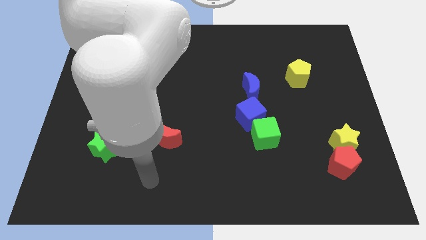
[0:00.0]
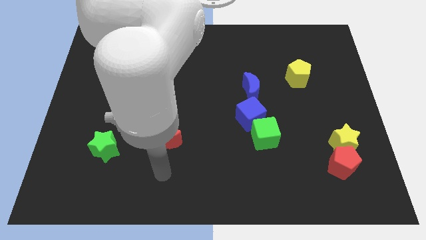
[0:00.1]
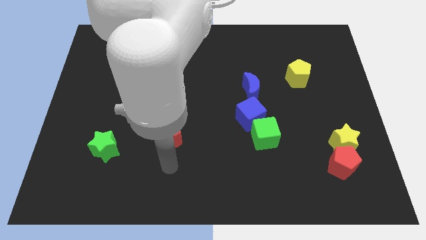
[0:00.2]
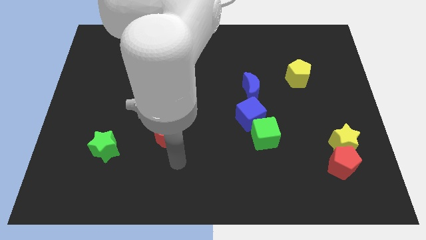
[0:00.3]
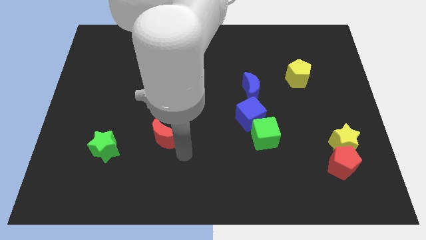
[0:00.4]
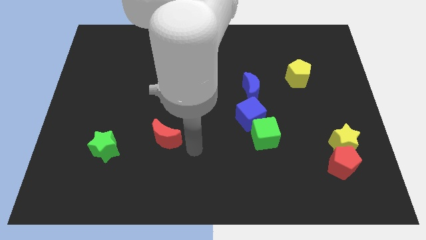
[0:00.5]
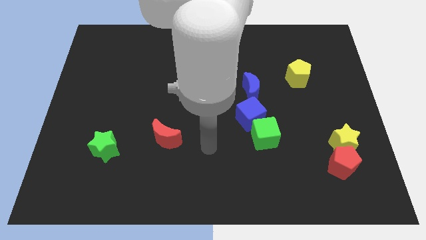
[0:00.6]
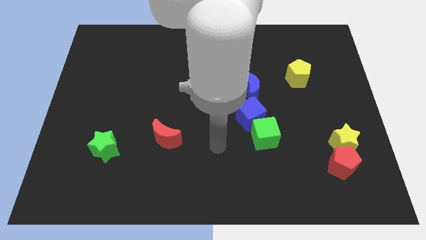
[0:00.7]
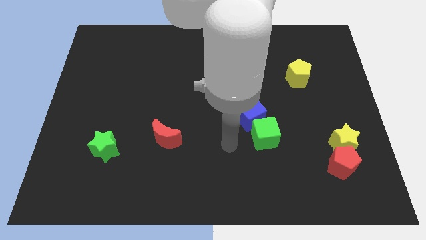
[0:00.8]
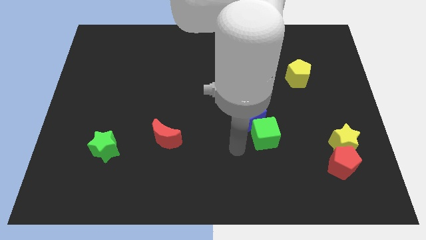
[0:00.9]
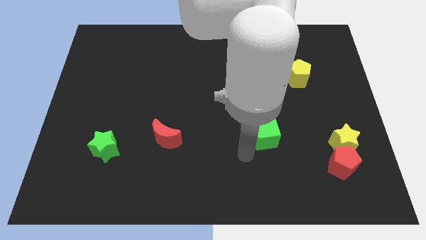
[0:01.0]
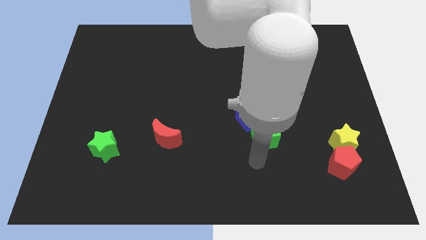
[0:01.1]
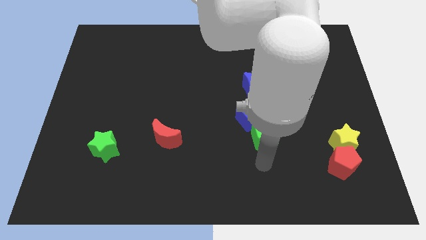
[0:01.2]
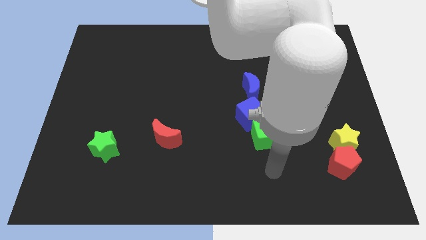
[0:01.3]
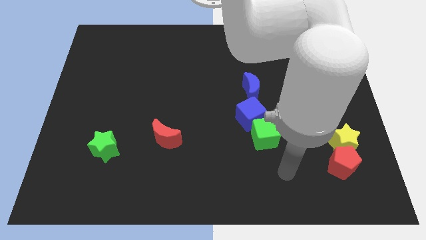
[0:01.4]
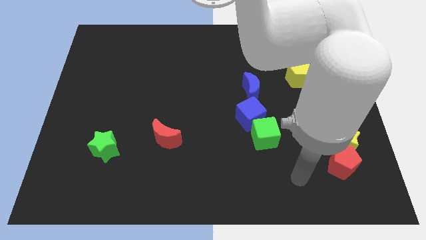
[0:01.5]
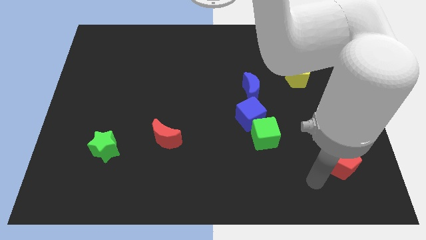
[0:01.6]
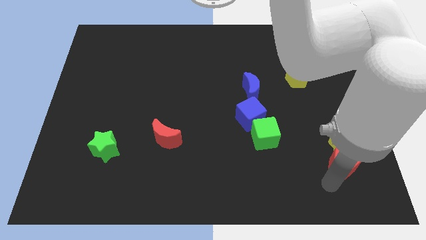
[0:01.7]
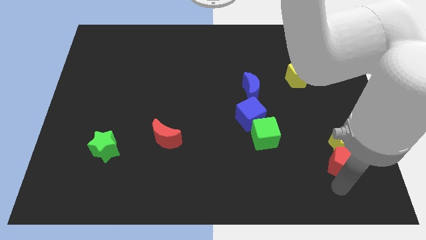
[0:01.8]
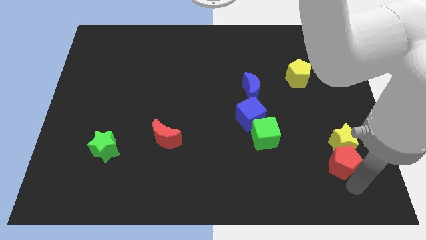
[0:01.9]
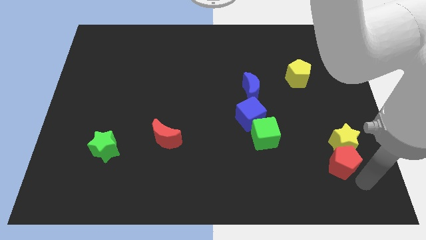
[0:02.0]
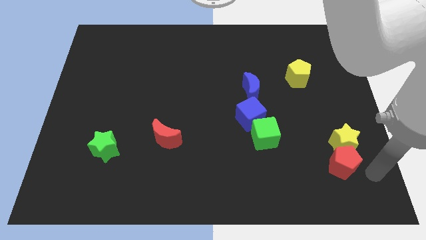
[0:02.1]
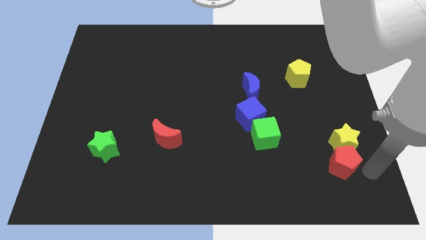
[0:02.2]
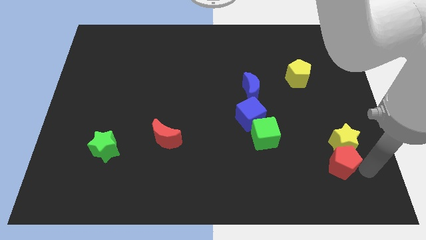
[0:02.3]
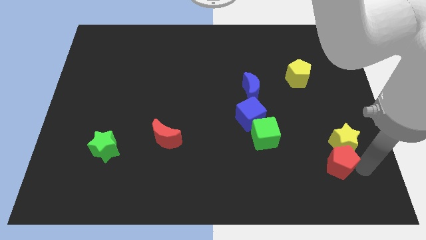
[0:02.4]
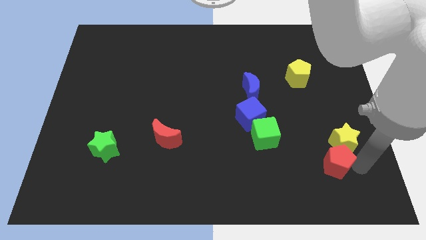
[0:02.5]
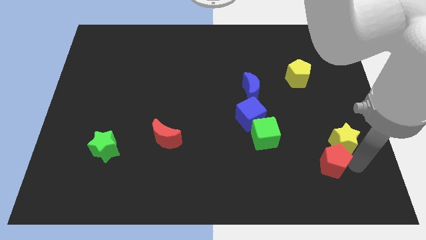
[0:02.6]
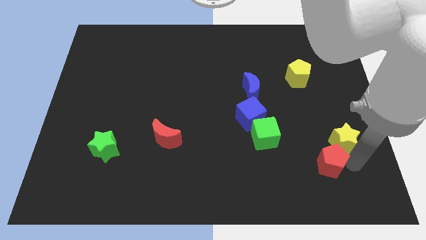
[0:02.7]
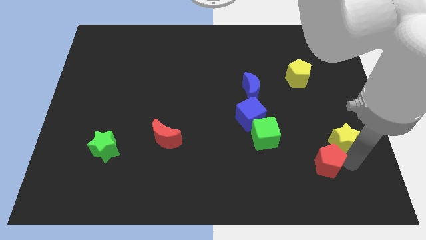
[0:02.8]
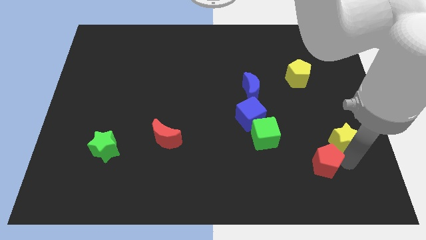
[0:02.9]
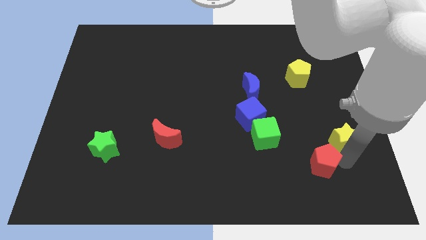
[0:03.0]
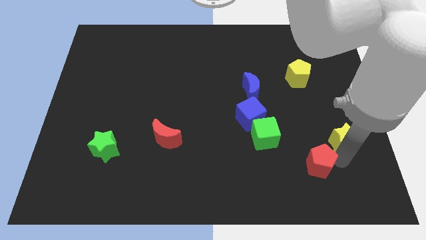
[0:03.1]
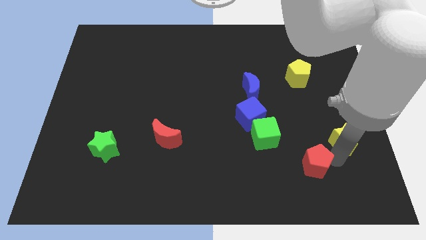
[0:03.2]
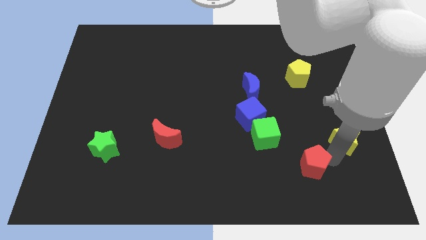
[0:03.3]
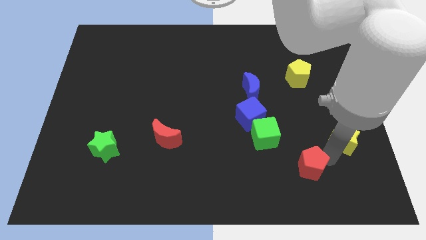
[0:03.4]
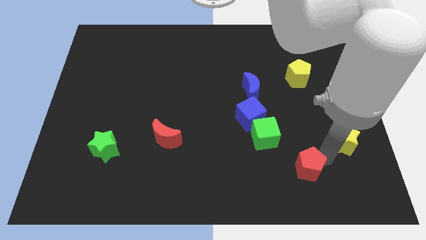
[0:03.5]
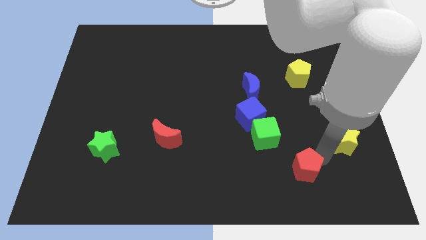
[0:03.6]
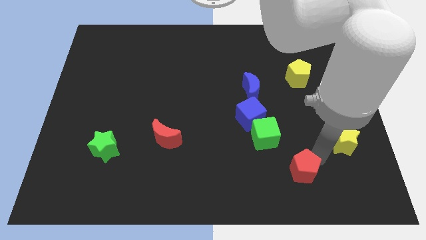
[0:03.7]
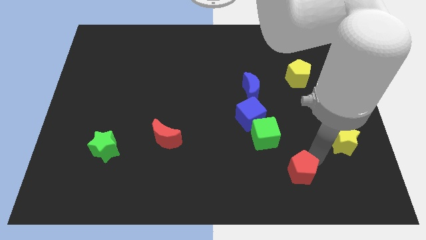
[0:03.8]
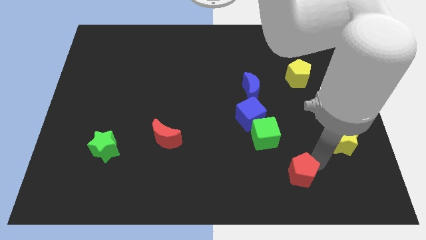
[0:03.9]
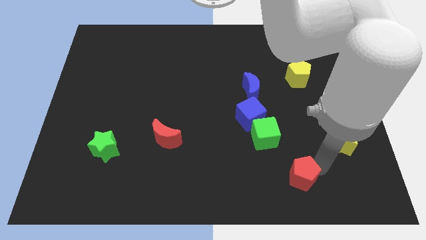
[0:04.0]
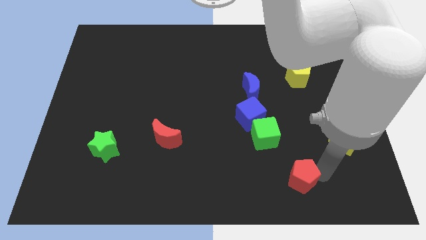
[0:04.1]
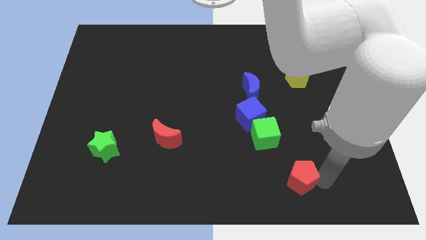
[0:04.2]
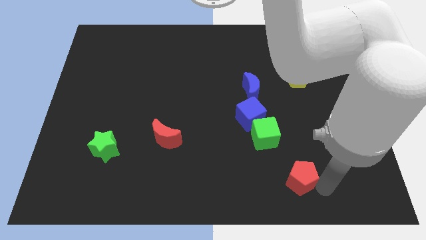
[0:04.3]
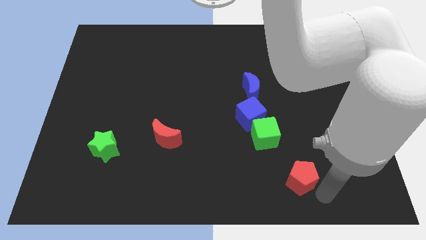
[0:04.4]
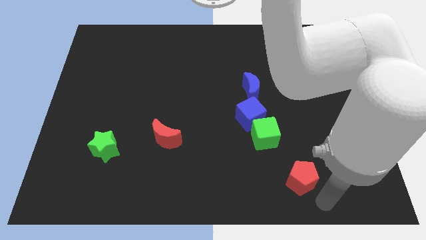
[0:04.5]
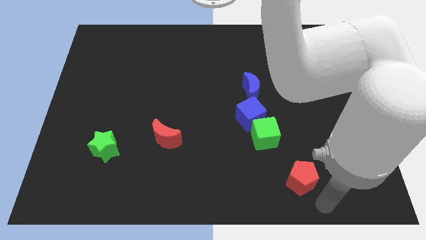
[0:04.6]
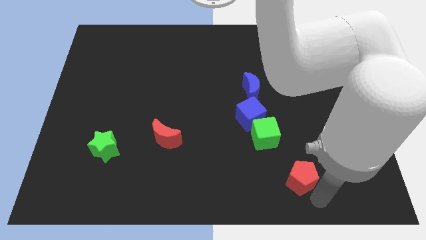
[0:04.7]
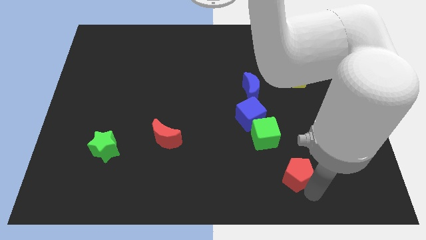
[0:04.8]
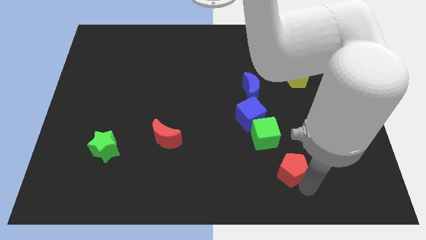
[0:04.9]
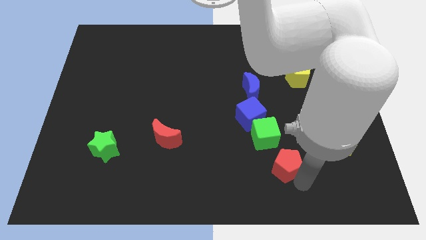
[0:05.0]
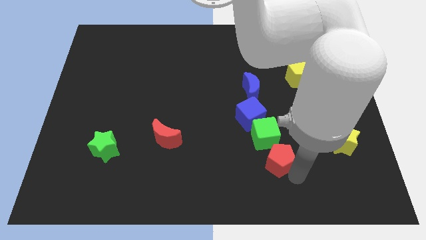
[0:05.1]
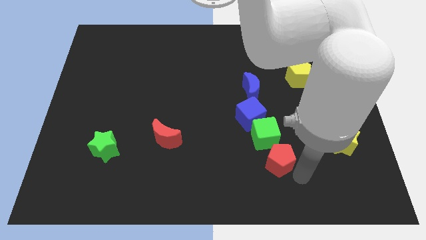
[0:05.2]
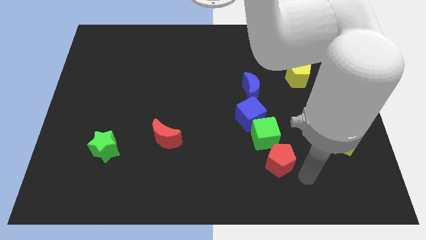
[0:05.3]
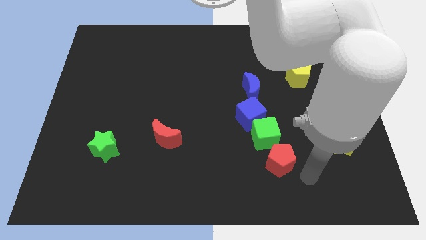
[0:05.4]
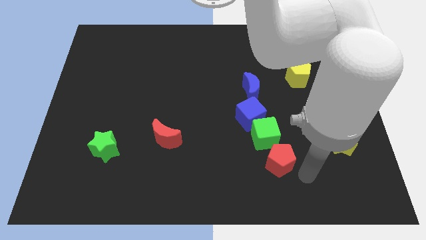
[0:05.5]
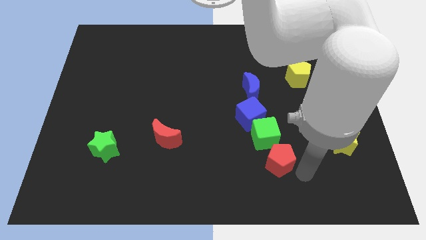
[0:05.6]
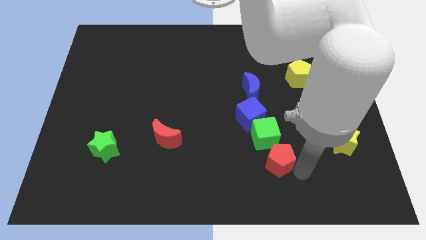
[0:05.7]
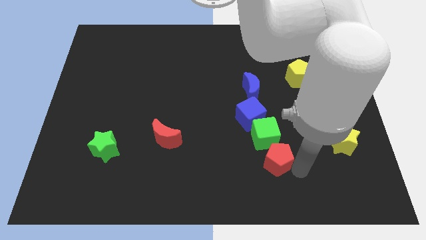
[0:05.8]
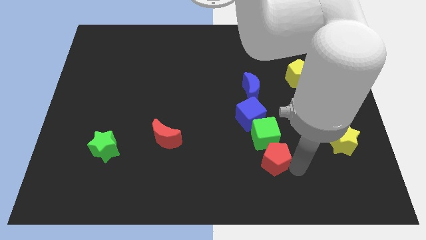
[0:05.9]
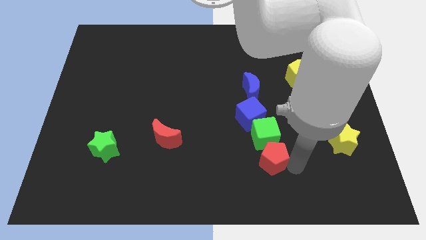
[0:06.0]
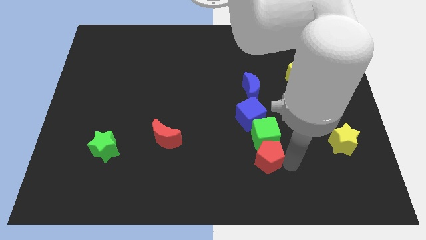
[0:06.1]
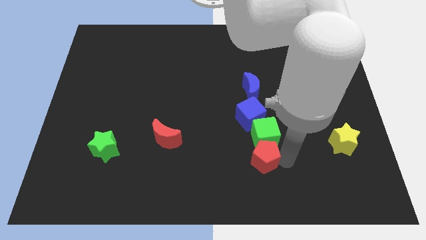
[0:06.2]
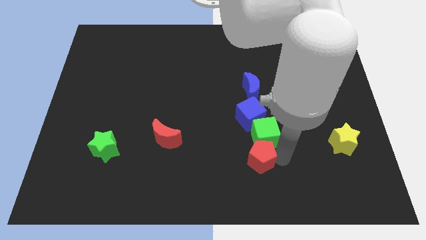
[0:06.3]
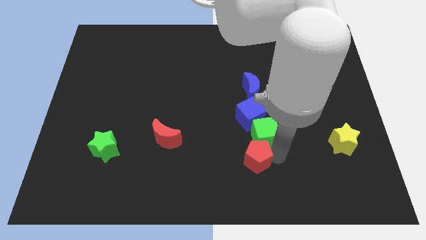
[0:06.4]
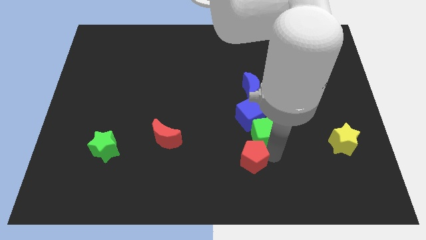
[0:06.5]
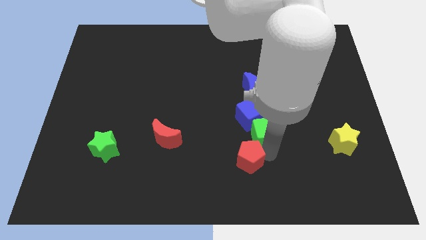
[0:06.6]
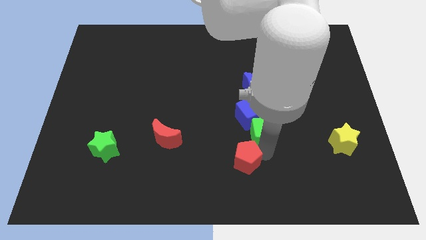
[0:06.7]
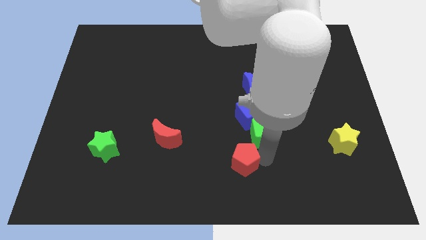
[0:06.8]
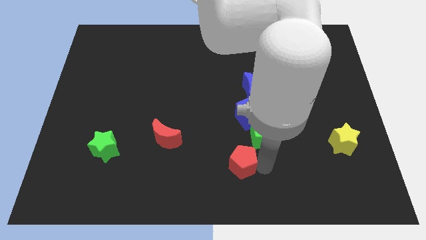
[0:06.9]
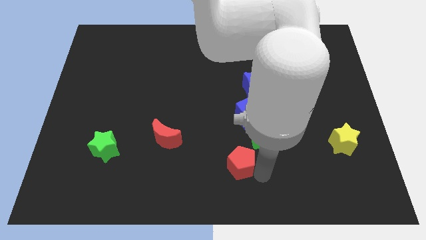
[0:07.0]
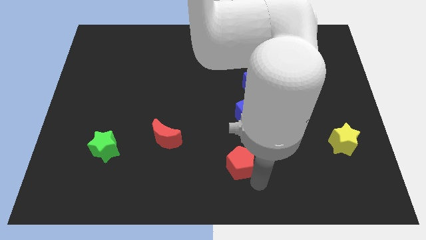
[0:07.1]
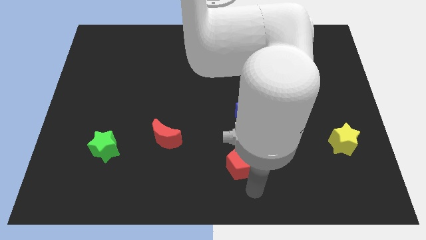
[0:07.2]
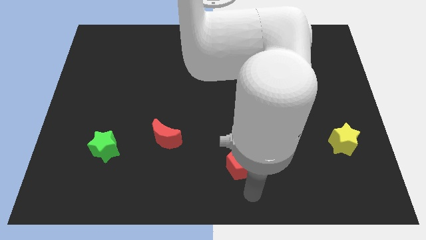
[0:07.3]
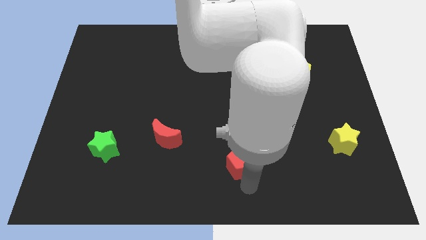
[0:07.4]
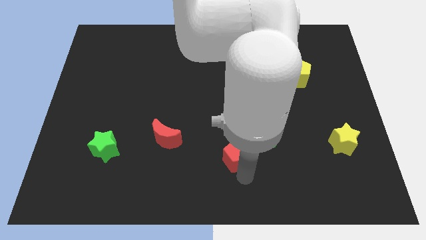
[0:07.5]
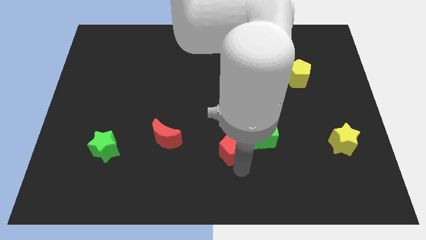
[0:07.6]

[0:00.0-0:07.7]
move the red pentagon diagonally down and to the left of the blue cube
